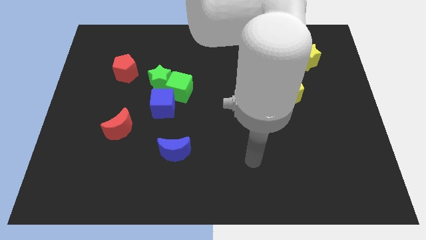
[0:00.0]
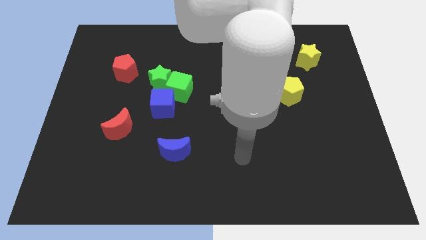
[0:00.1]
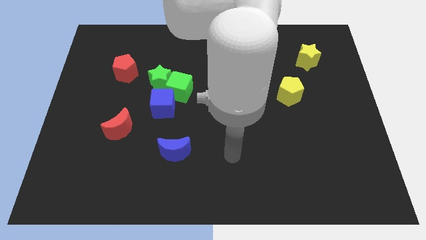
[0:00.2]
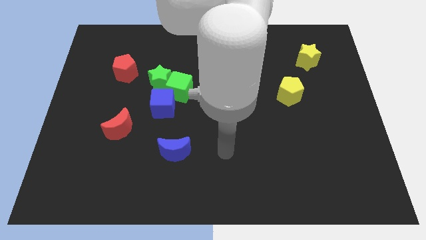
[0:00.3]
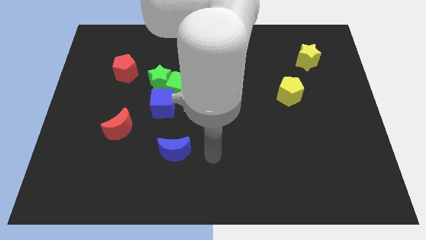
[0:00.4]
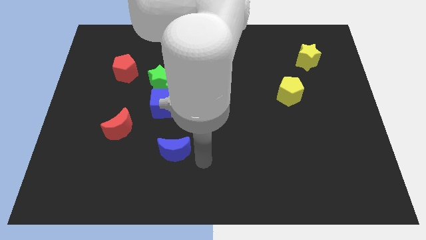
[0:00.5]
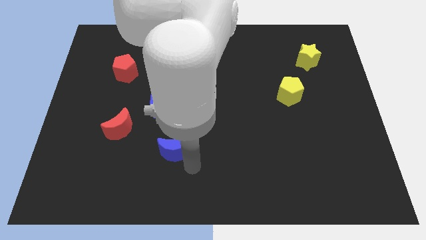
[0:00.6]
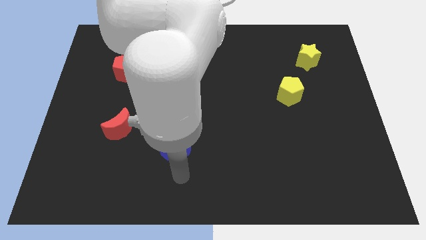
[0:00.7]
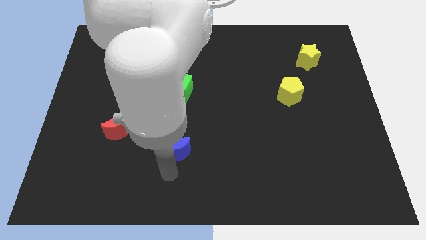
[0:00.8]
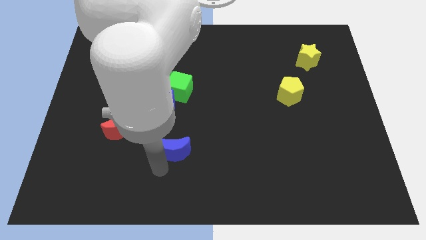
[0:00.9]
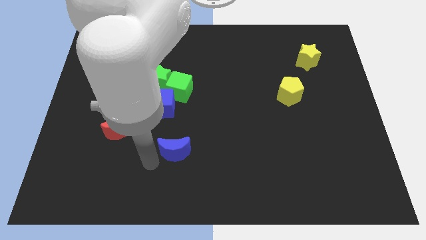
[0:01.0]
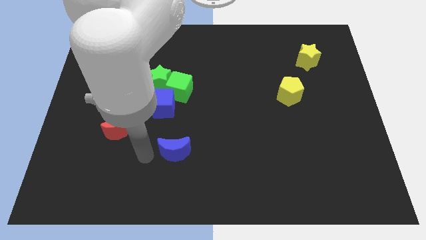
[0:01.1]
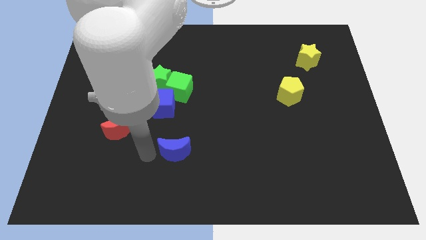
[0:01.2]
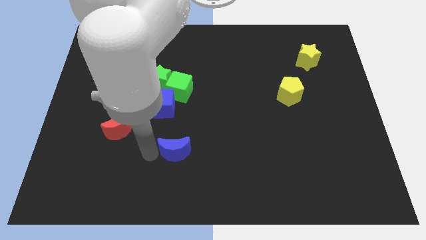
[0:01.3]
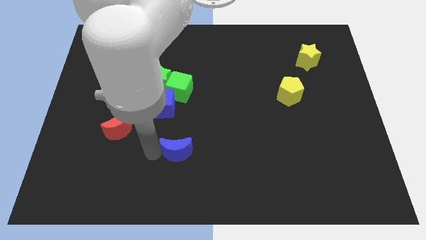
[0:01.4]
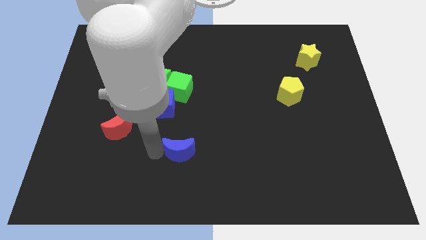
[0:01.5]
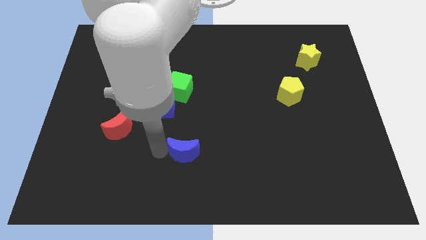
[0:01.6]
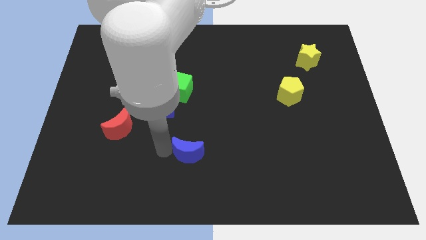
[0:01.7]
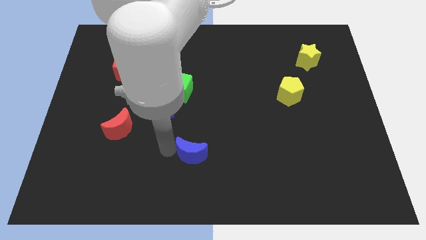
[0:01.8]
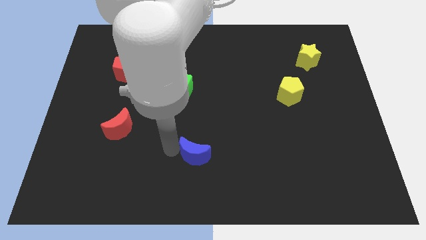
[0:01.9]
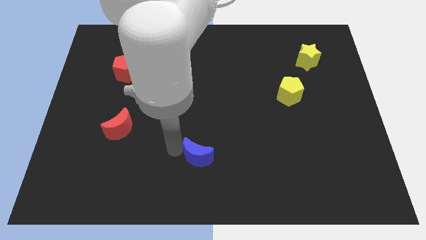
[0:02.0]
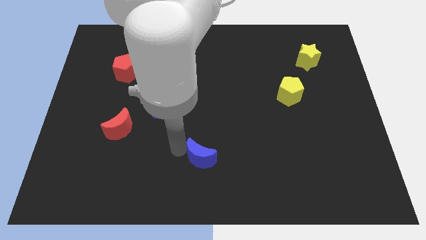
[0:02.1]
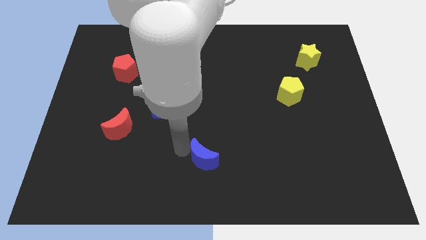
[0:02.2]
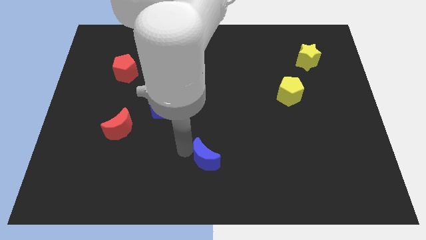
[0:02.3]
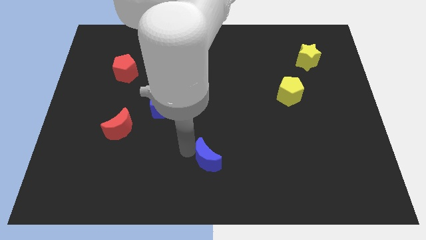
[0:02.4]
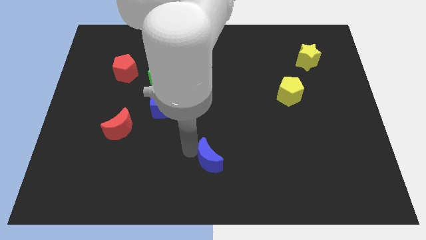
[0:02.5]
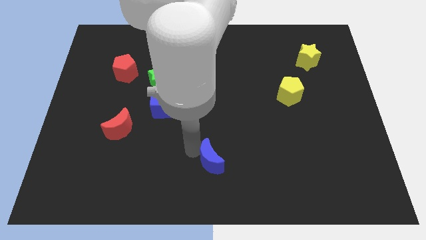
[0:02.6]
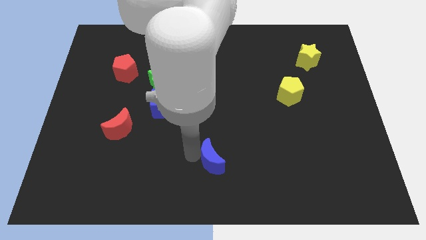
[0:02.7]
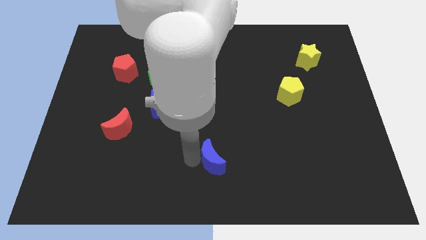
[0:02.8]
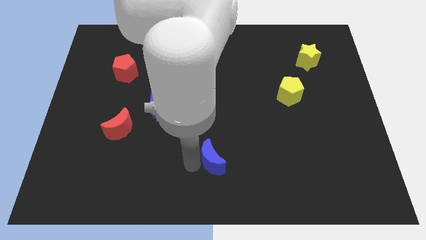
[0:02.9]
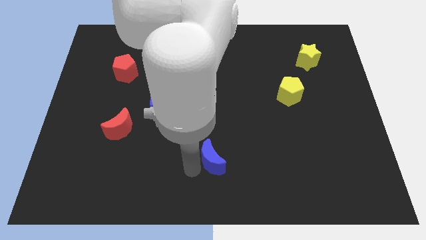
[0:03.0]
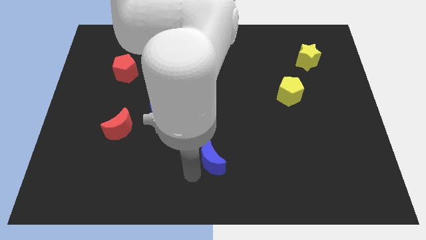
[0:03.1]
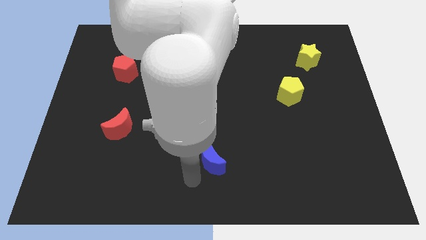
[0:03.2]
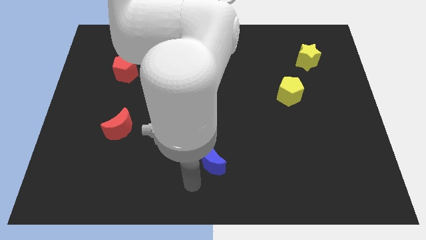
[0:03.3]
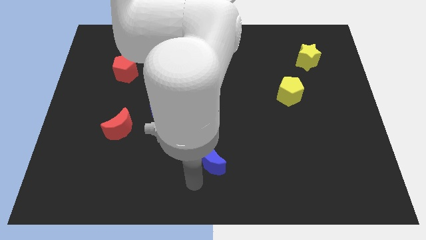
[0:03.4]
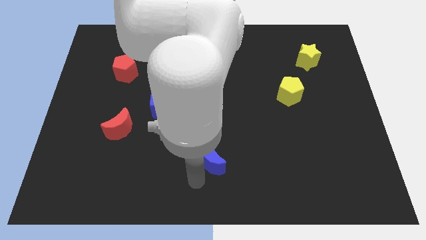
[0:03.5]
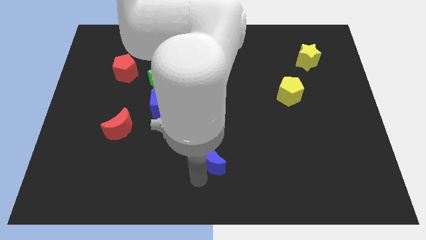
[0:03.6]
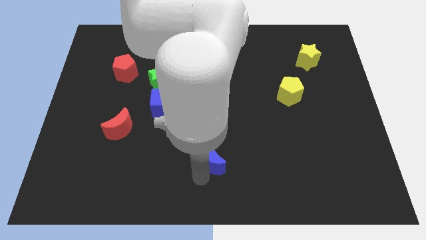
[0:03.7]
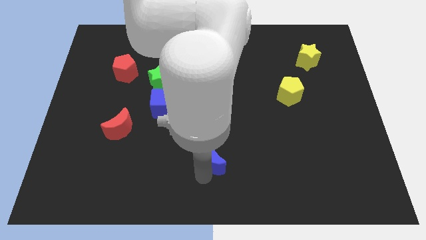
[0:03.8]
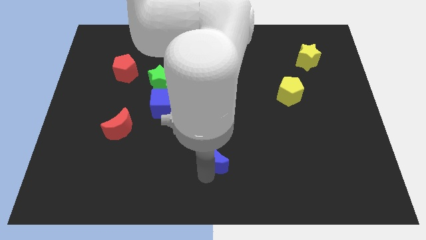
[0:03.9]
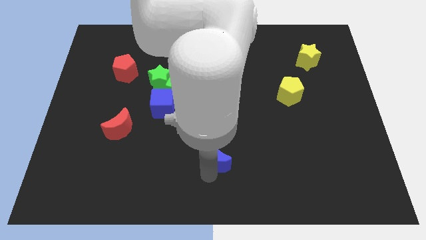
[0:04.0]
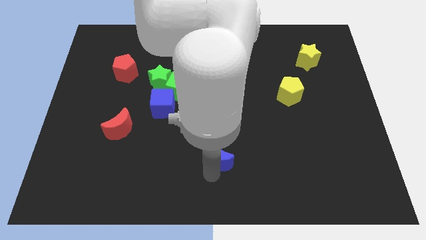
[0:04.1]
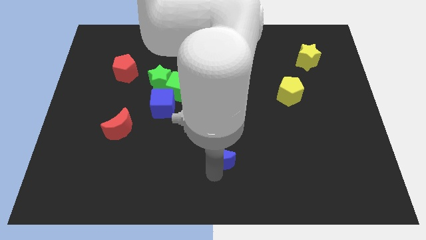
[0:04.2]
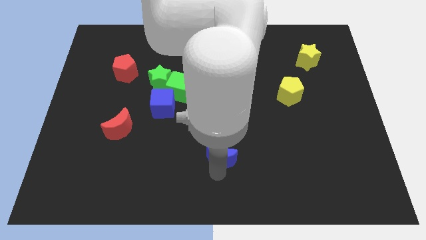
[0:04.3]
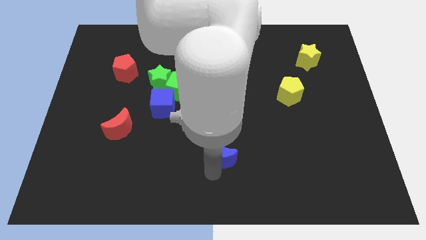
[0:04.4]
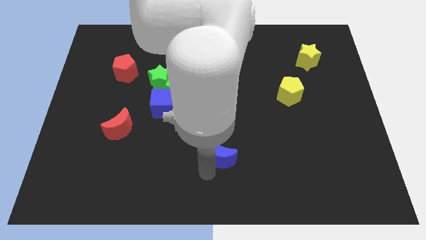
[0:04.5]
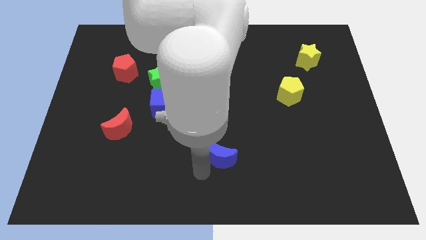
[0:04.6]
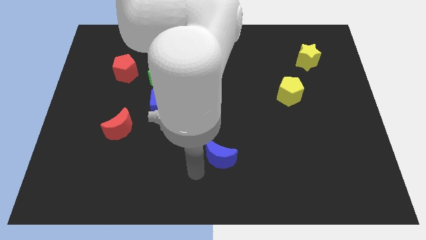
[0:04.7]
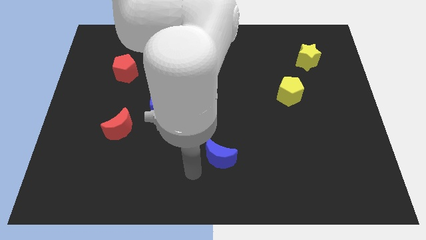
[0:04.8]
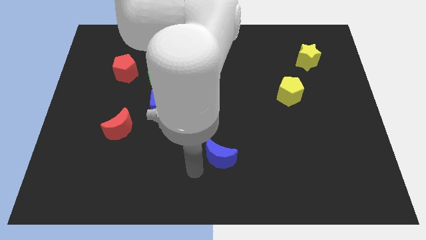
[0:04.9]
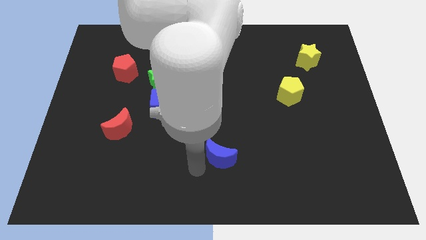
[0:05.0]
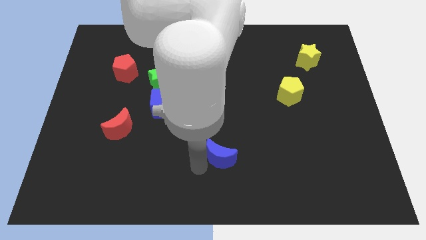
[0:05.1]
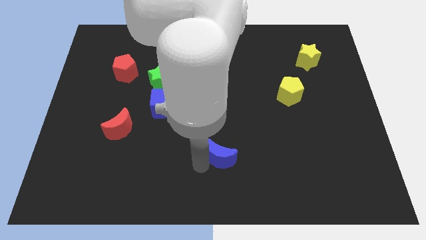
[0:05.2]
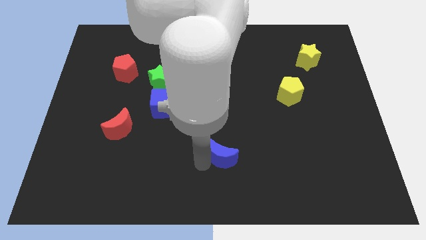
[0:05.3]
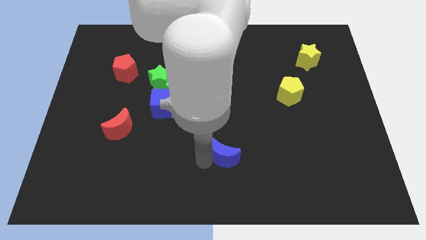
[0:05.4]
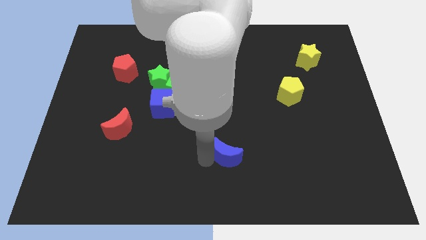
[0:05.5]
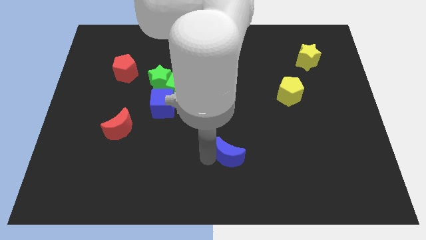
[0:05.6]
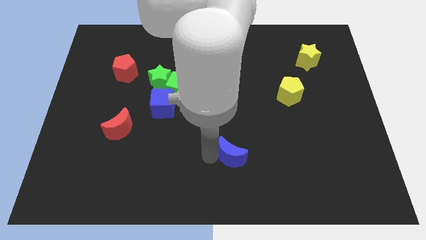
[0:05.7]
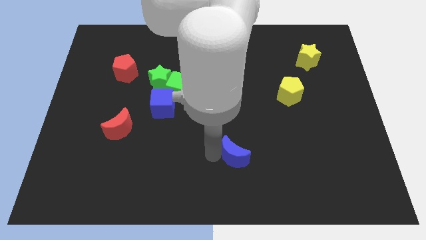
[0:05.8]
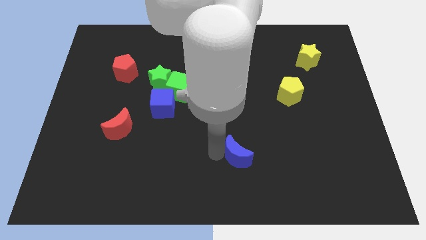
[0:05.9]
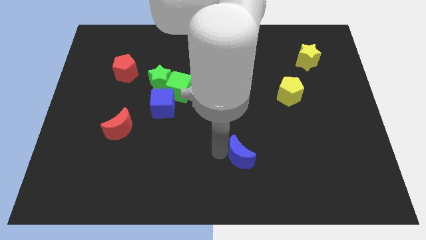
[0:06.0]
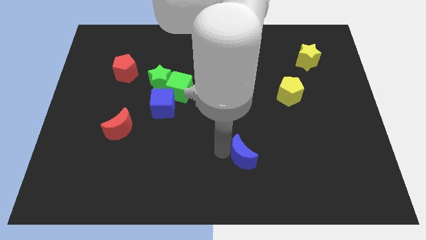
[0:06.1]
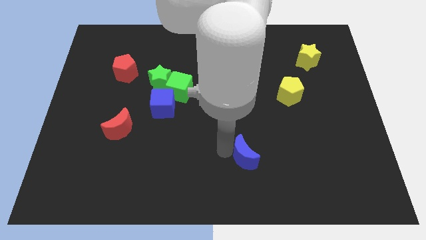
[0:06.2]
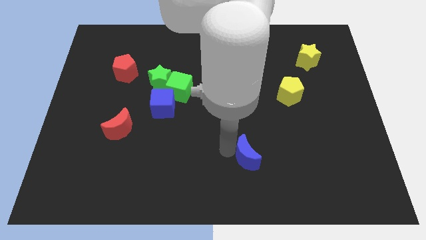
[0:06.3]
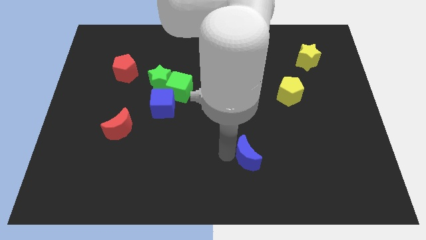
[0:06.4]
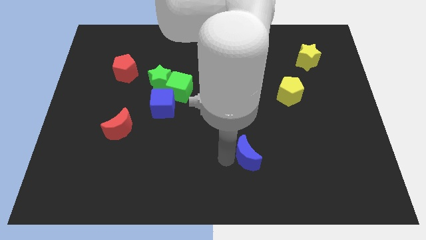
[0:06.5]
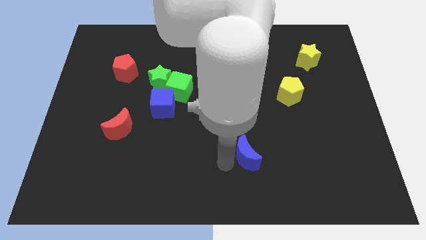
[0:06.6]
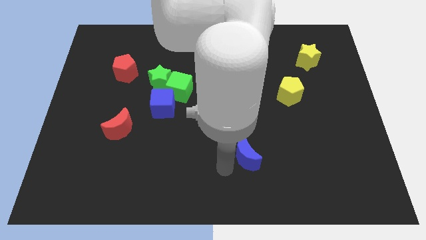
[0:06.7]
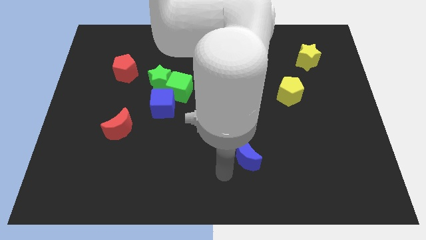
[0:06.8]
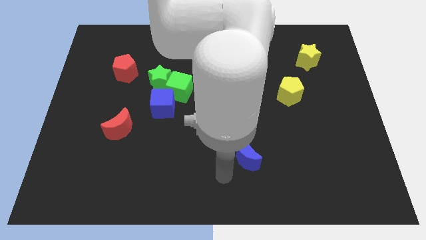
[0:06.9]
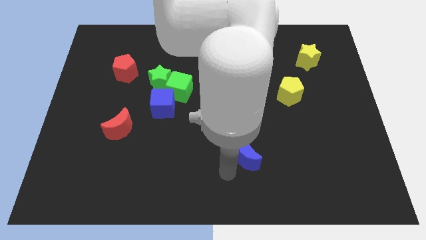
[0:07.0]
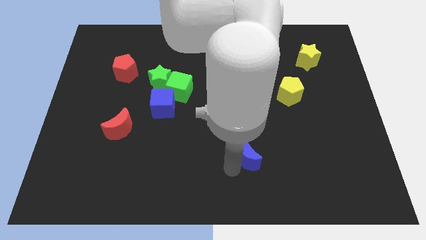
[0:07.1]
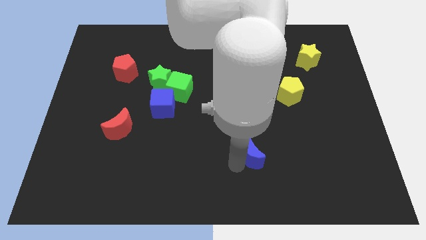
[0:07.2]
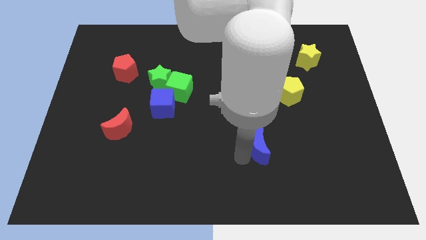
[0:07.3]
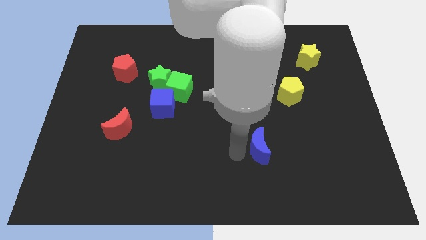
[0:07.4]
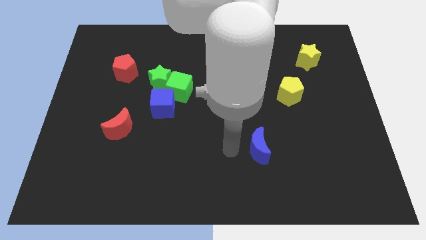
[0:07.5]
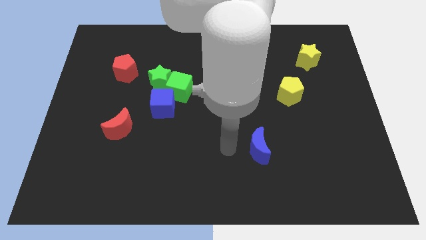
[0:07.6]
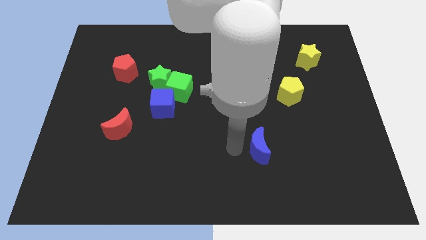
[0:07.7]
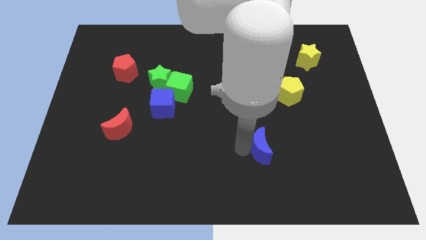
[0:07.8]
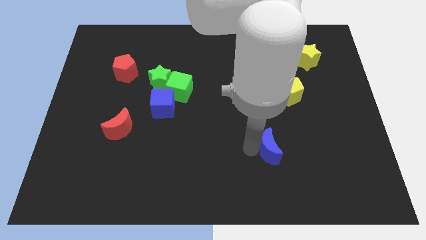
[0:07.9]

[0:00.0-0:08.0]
slide the blue moon to the right

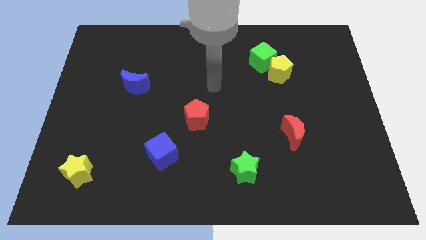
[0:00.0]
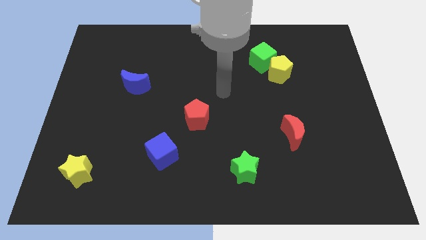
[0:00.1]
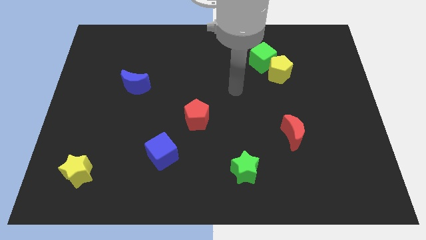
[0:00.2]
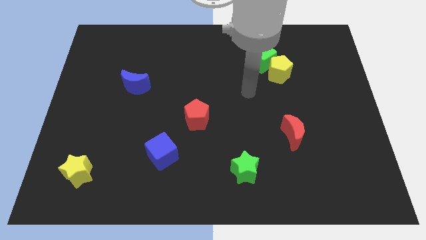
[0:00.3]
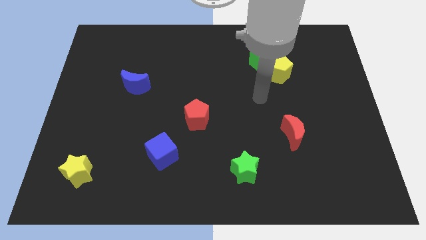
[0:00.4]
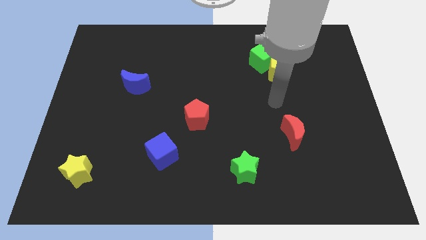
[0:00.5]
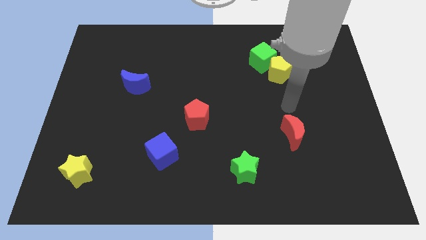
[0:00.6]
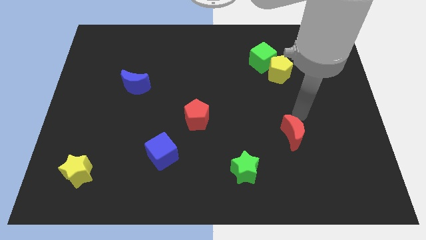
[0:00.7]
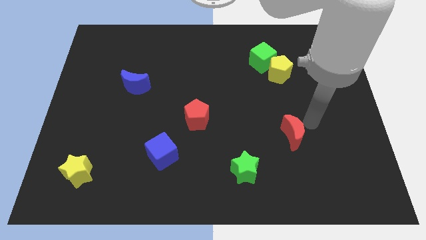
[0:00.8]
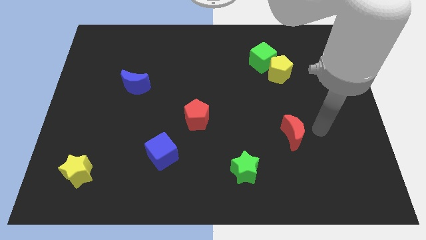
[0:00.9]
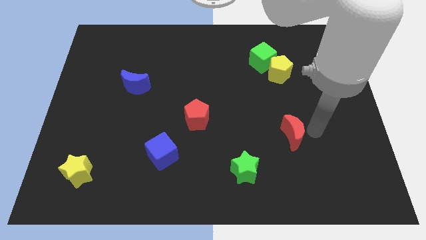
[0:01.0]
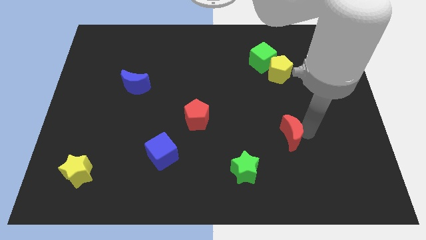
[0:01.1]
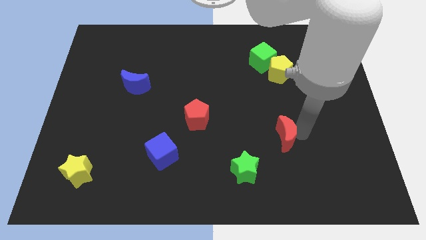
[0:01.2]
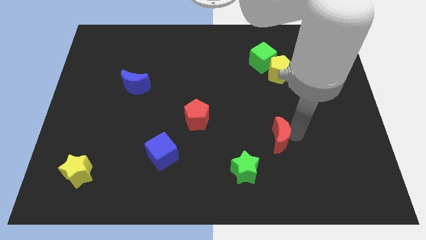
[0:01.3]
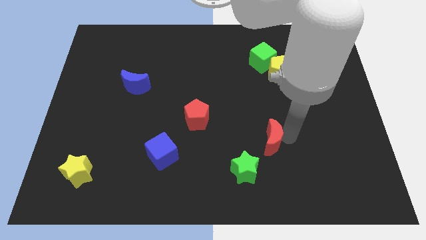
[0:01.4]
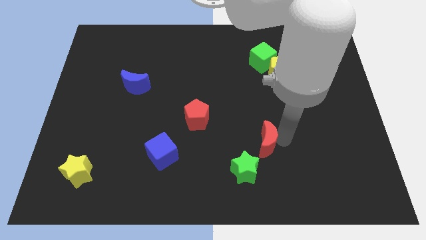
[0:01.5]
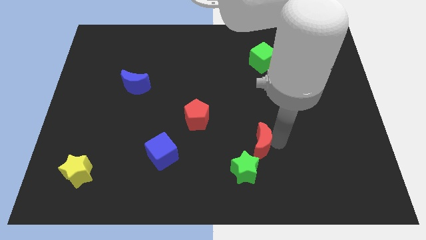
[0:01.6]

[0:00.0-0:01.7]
slightly slide the red moon to the left
